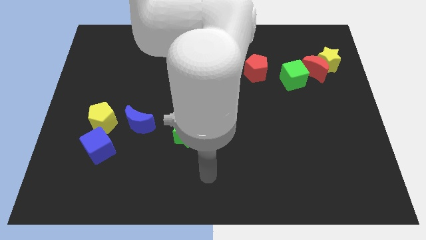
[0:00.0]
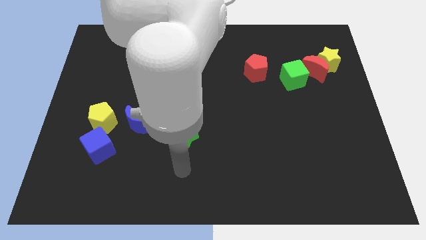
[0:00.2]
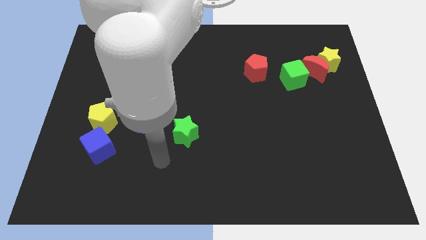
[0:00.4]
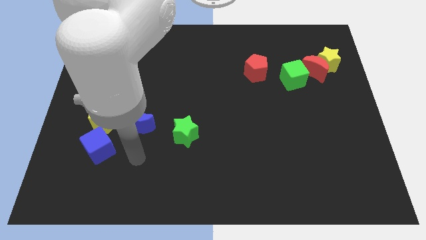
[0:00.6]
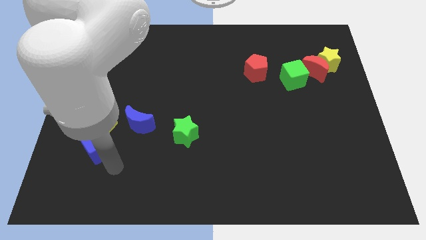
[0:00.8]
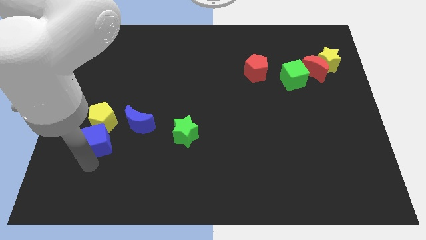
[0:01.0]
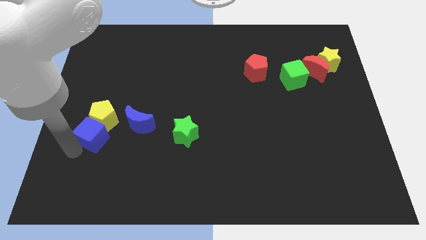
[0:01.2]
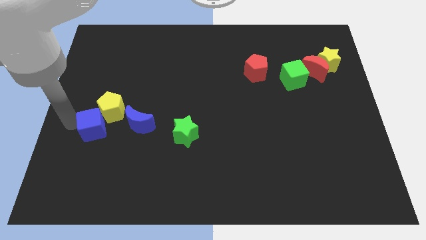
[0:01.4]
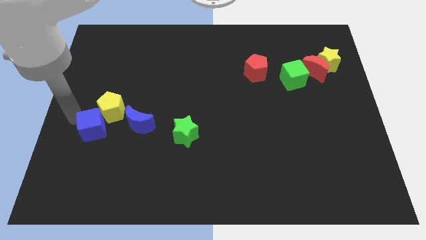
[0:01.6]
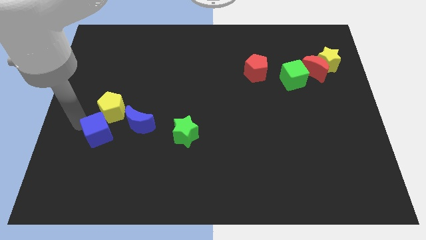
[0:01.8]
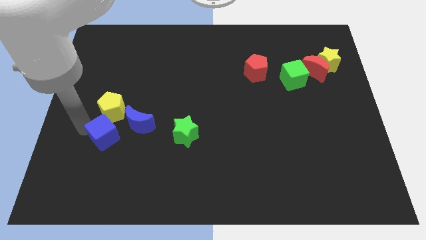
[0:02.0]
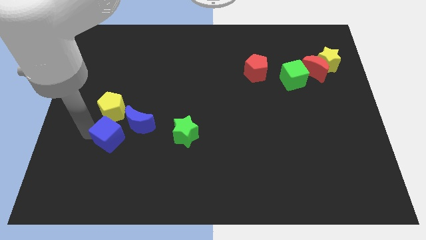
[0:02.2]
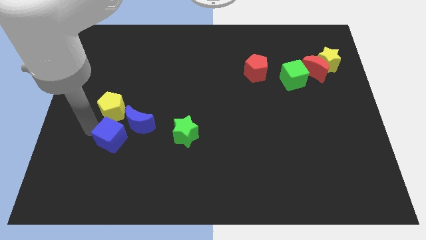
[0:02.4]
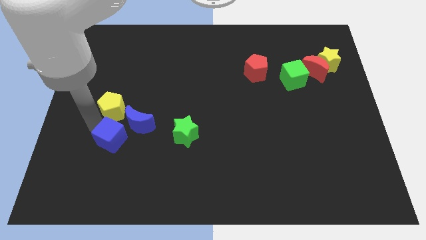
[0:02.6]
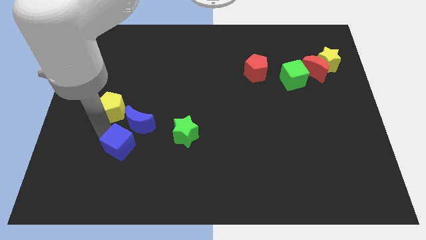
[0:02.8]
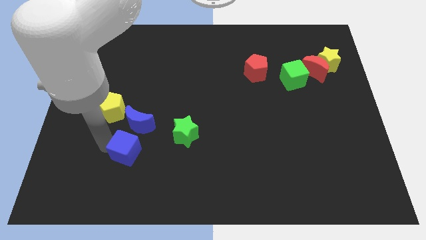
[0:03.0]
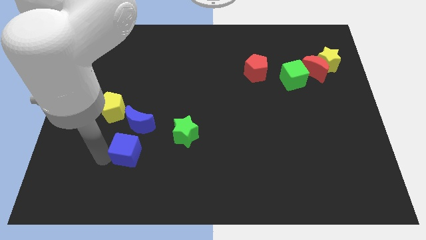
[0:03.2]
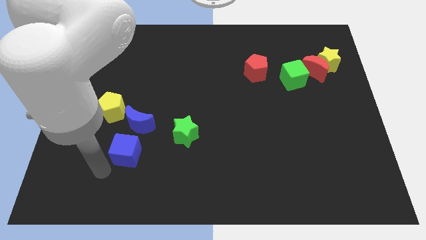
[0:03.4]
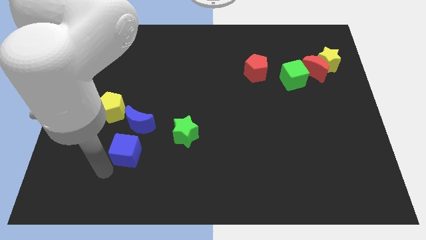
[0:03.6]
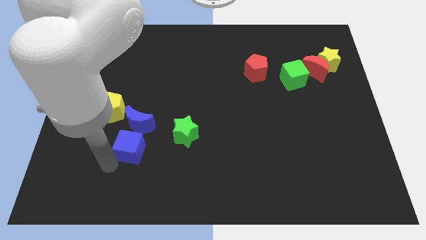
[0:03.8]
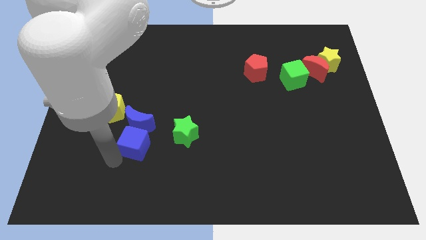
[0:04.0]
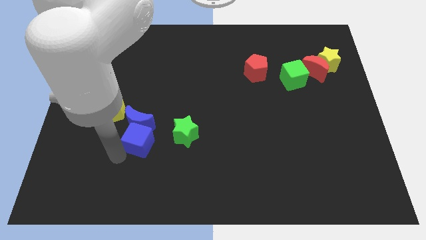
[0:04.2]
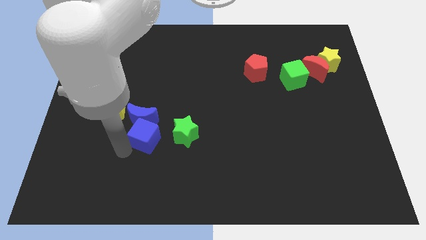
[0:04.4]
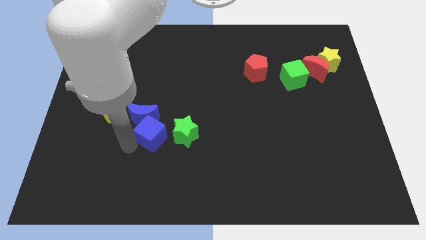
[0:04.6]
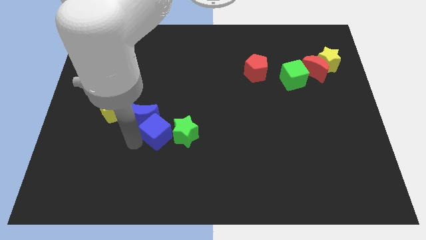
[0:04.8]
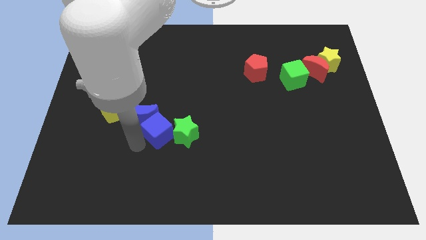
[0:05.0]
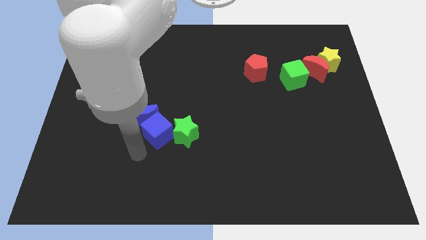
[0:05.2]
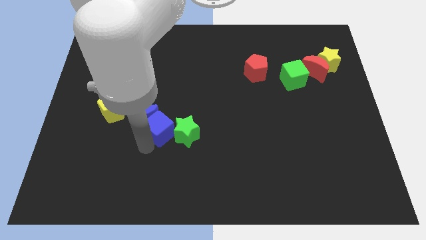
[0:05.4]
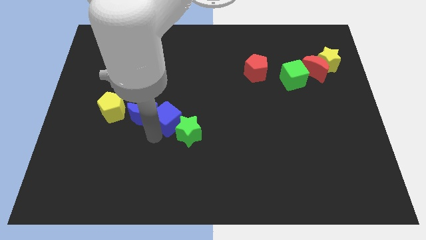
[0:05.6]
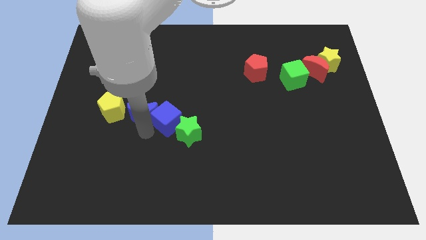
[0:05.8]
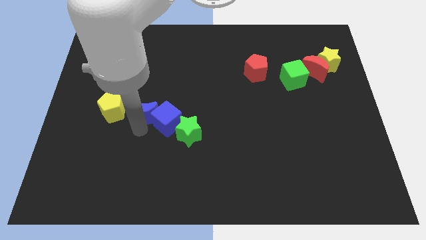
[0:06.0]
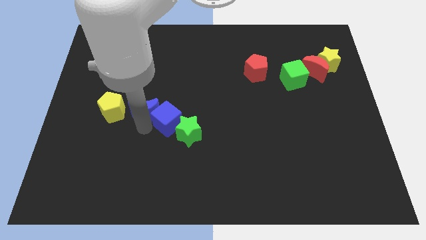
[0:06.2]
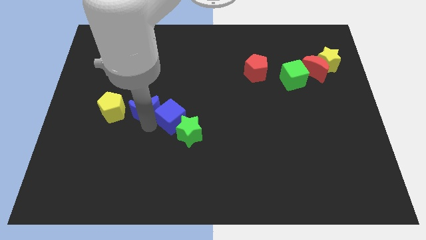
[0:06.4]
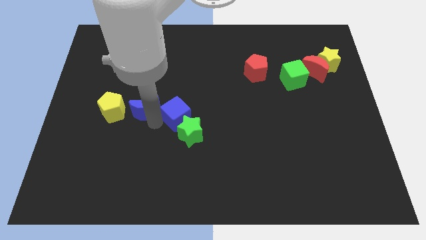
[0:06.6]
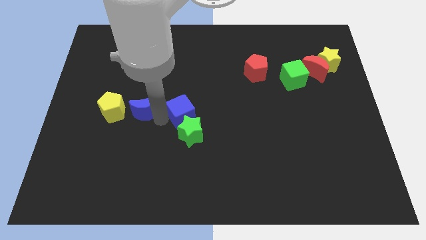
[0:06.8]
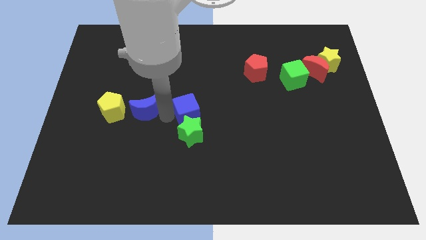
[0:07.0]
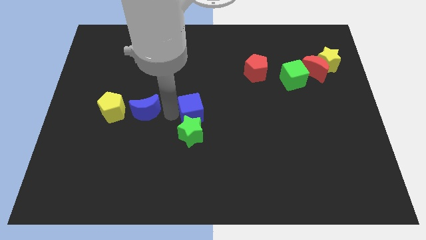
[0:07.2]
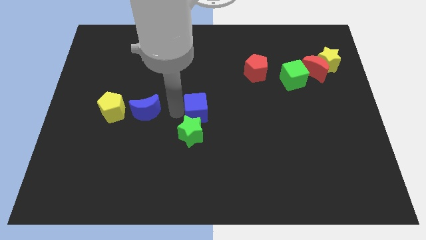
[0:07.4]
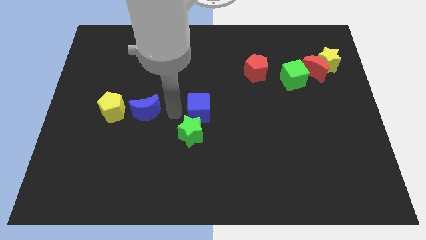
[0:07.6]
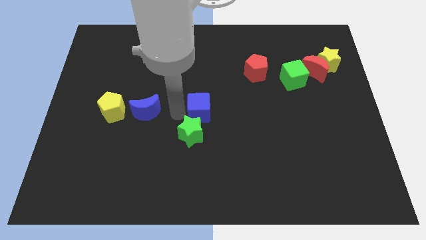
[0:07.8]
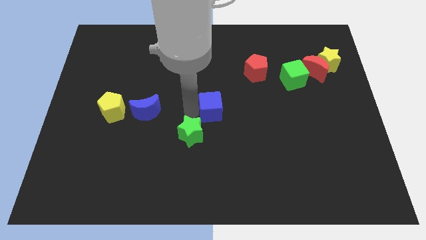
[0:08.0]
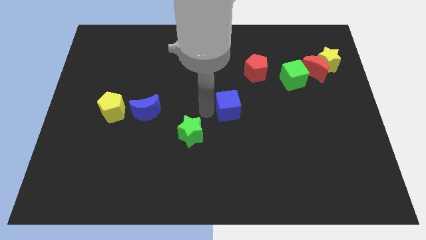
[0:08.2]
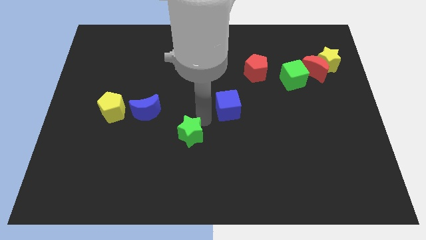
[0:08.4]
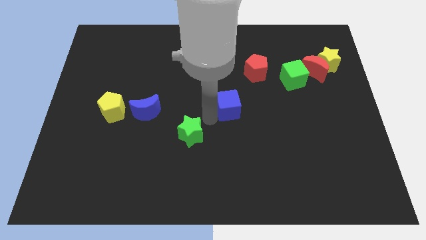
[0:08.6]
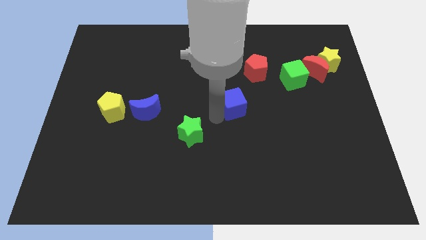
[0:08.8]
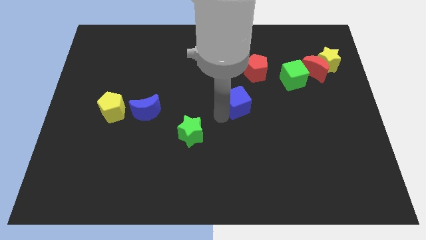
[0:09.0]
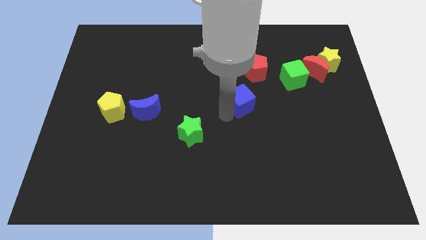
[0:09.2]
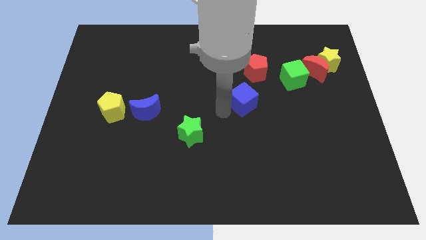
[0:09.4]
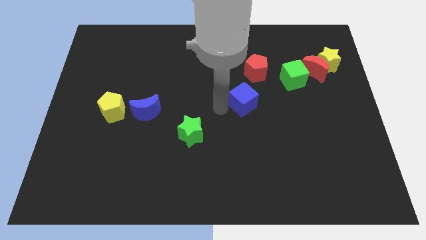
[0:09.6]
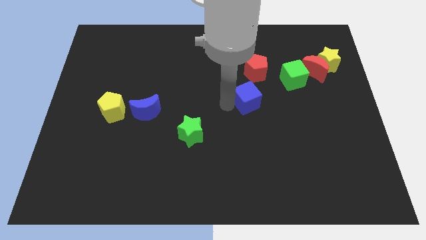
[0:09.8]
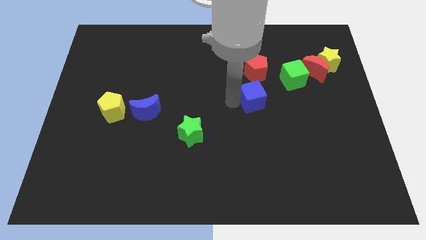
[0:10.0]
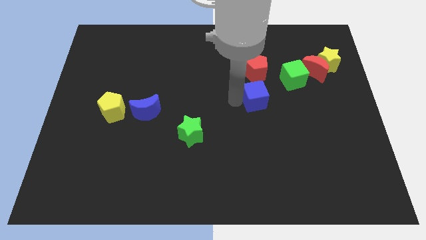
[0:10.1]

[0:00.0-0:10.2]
push the blue cube to the bottom left of the green cube

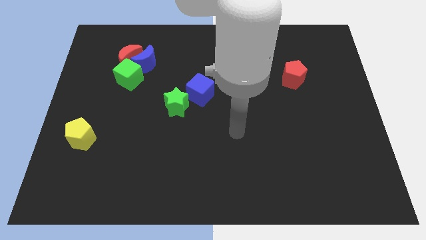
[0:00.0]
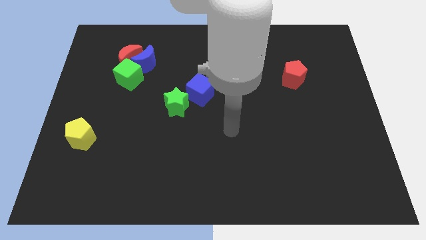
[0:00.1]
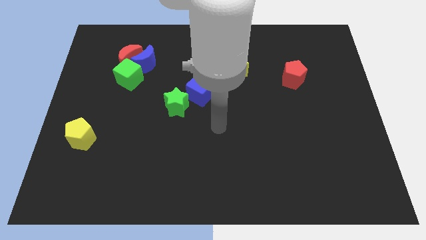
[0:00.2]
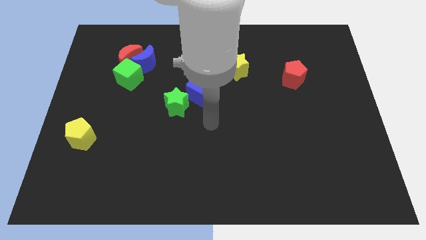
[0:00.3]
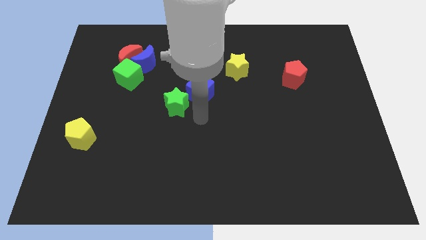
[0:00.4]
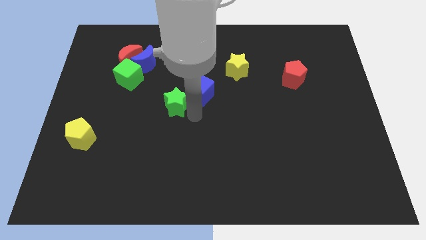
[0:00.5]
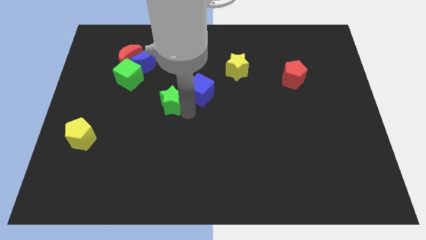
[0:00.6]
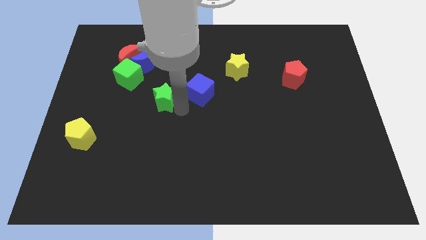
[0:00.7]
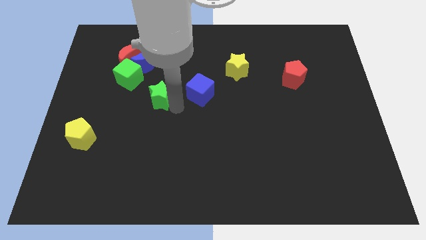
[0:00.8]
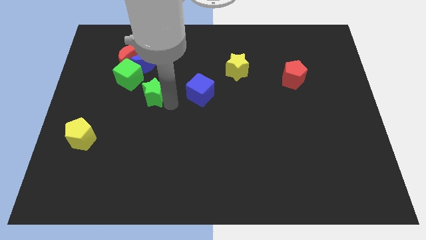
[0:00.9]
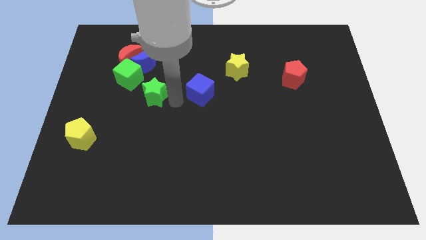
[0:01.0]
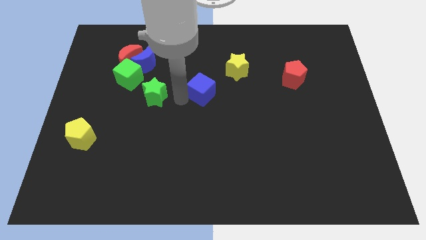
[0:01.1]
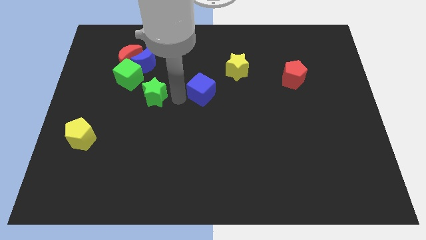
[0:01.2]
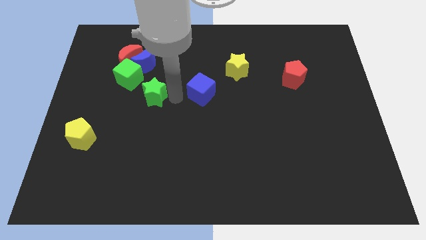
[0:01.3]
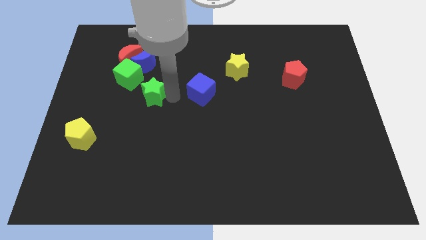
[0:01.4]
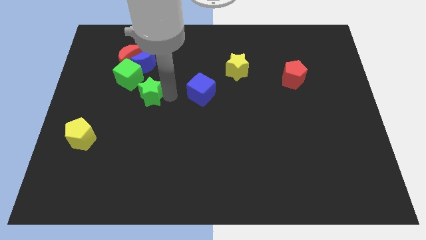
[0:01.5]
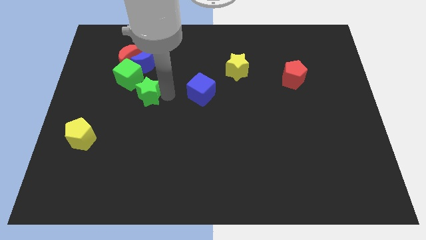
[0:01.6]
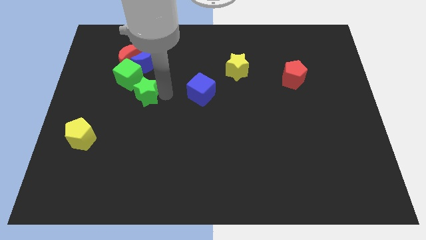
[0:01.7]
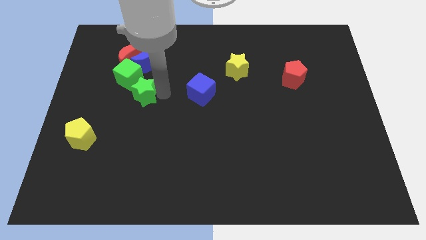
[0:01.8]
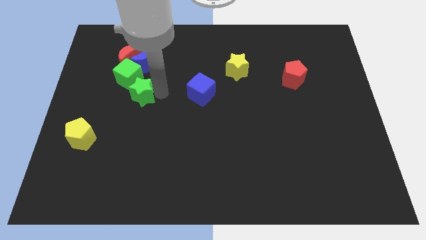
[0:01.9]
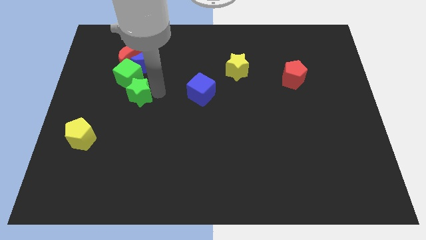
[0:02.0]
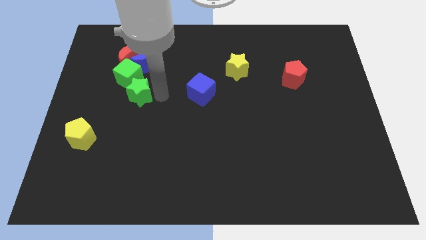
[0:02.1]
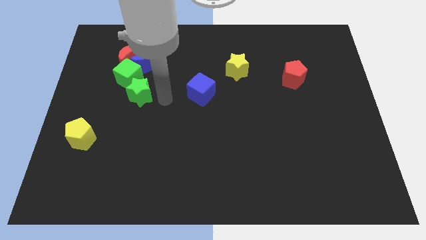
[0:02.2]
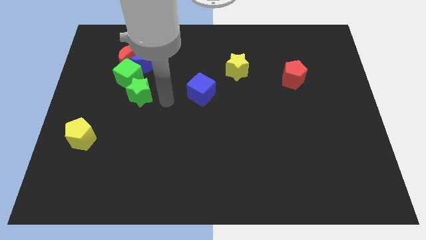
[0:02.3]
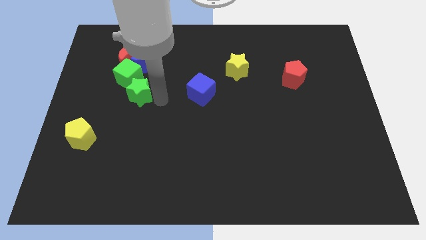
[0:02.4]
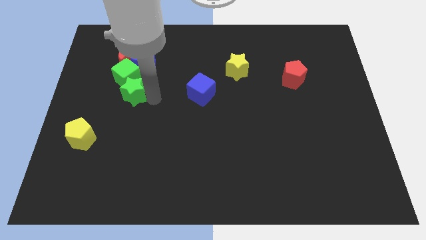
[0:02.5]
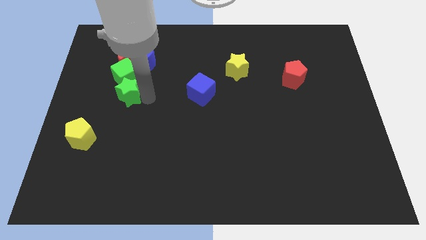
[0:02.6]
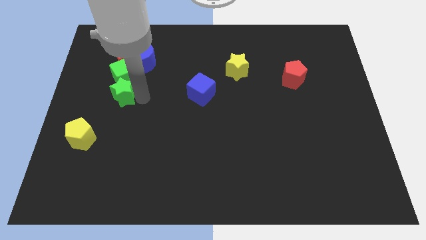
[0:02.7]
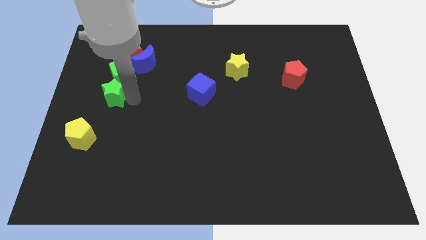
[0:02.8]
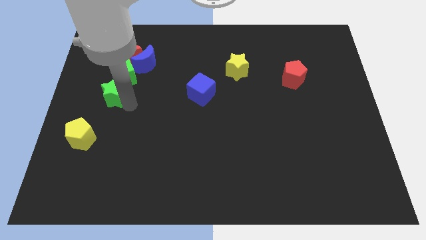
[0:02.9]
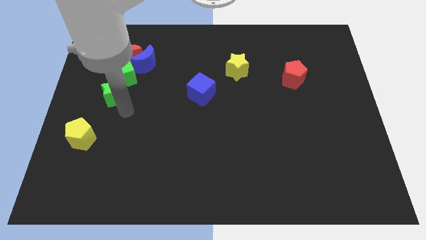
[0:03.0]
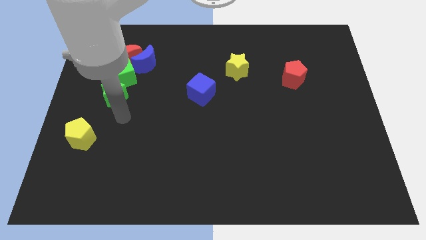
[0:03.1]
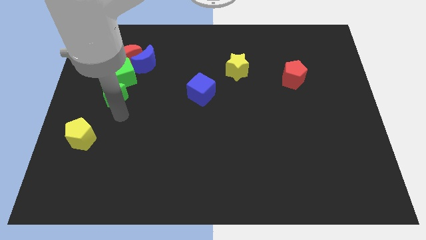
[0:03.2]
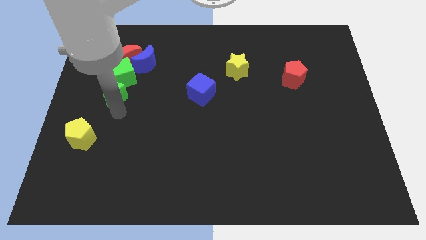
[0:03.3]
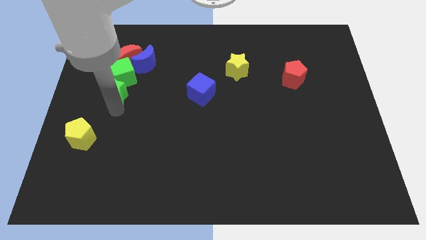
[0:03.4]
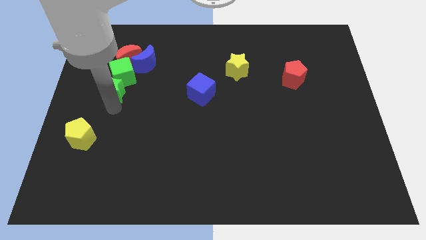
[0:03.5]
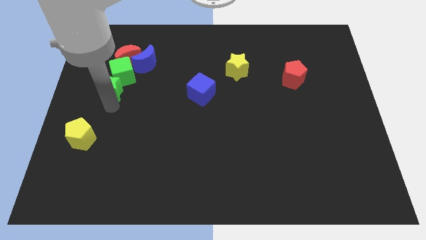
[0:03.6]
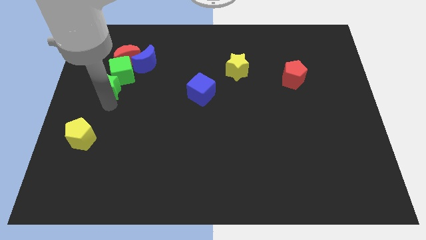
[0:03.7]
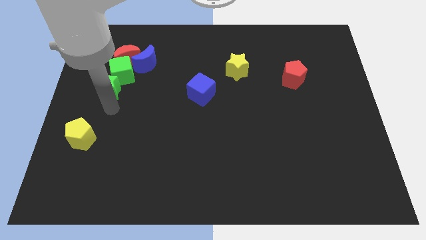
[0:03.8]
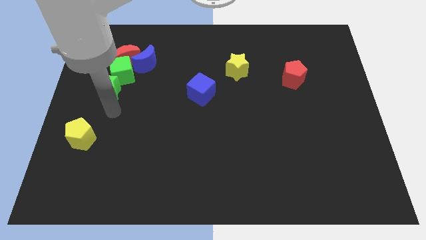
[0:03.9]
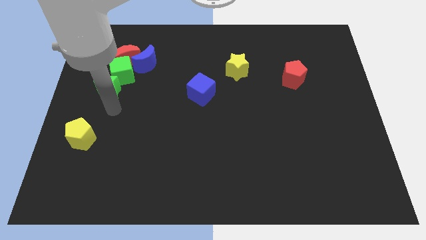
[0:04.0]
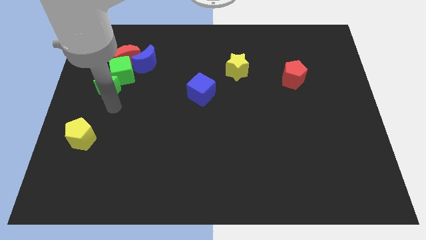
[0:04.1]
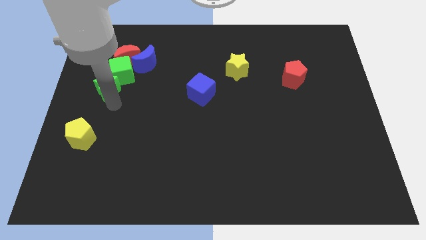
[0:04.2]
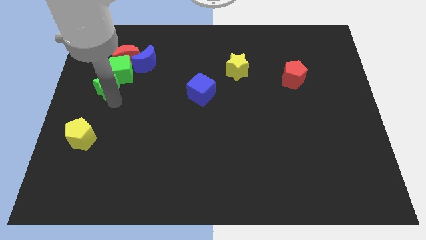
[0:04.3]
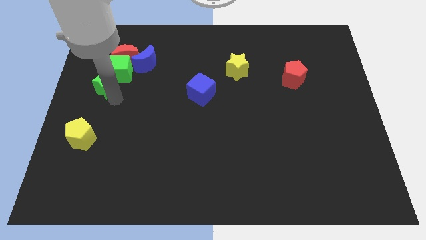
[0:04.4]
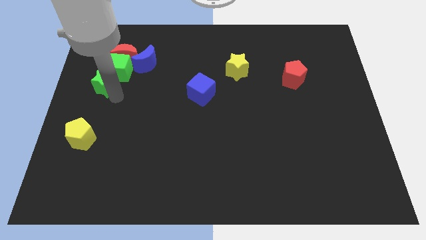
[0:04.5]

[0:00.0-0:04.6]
move the green star to the bottom left of the red moon
